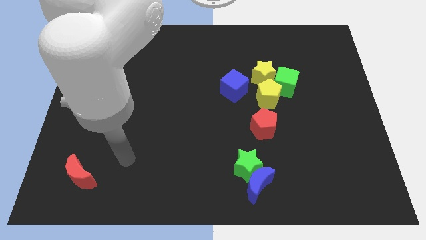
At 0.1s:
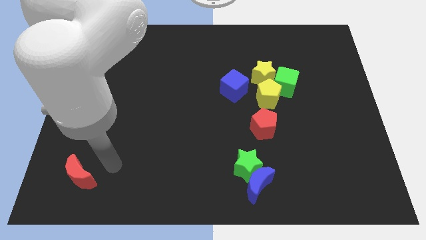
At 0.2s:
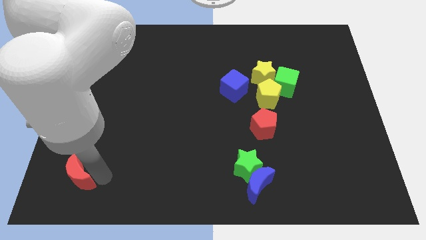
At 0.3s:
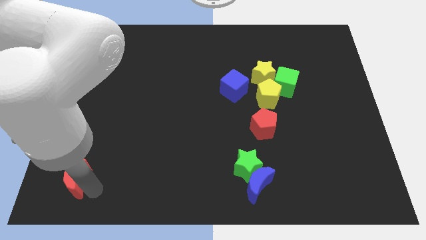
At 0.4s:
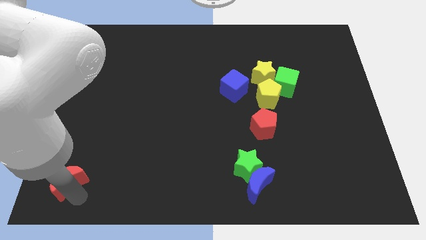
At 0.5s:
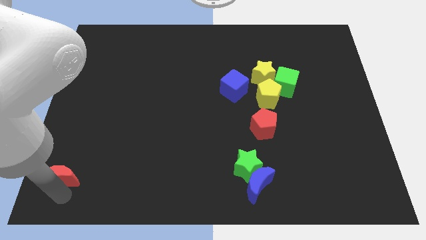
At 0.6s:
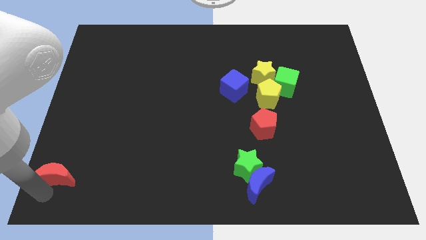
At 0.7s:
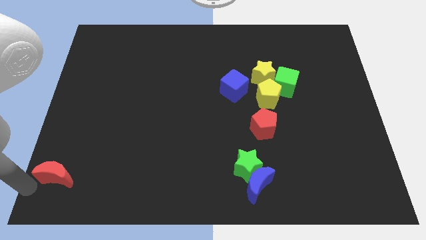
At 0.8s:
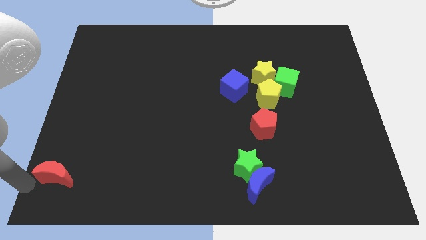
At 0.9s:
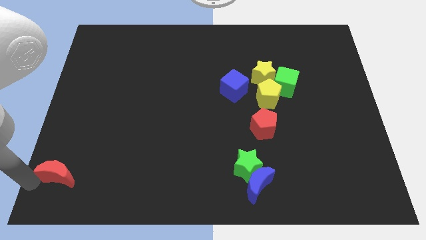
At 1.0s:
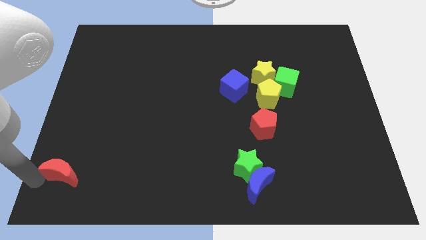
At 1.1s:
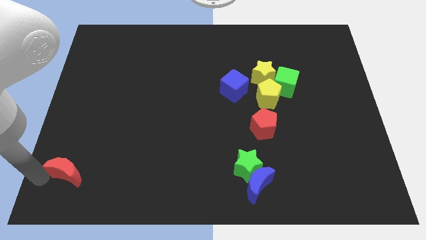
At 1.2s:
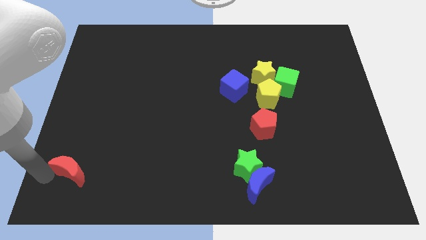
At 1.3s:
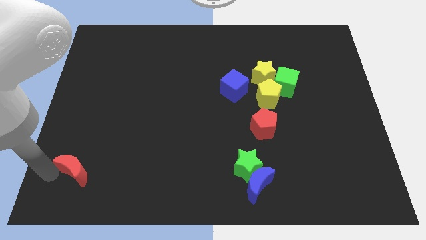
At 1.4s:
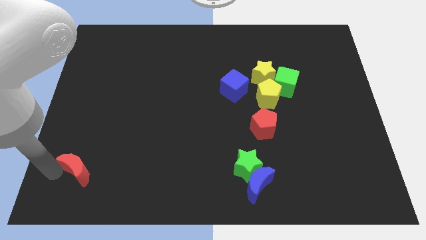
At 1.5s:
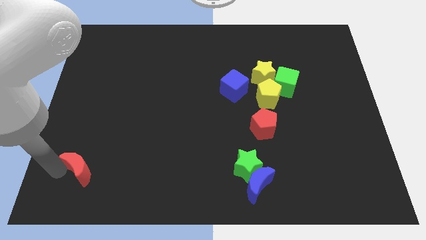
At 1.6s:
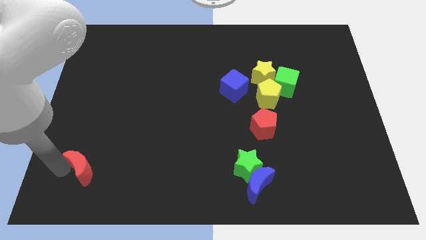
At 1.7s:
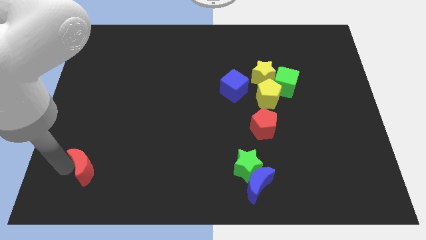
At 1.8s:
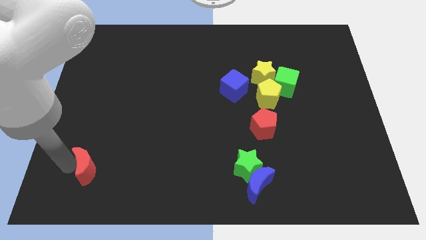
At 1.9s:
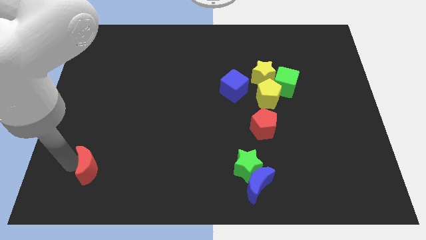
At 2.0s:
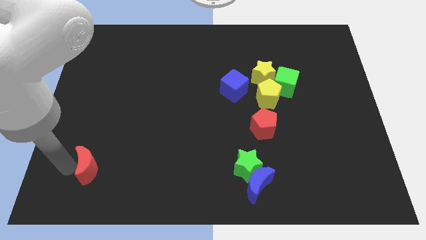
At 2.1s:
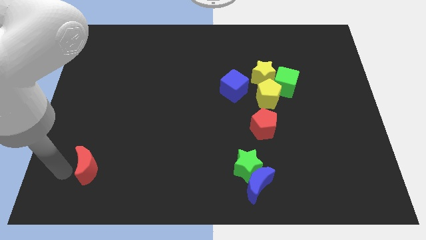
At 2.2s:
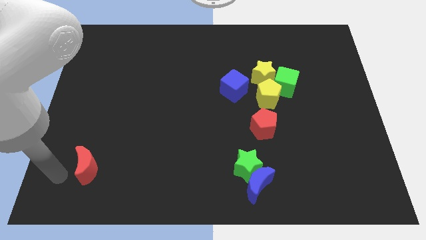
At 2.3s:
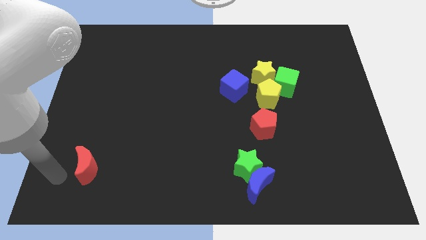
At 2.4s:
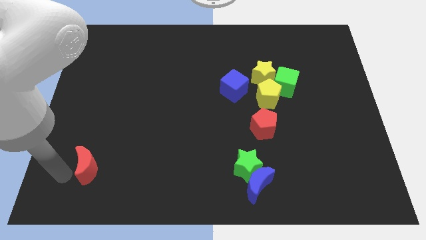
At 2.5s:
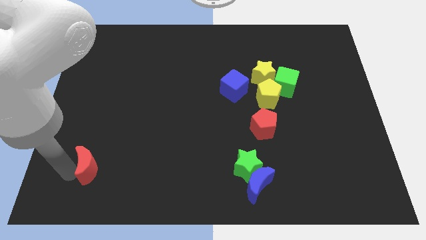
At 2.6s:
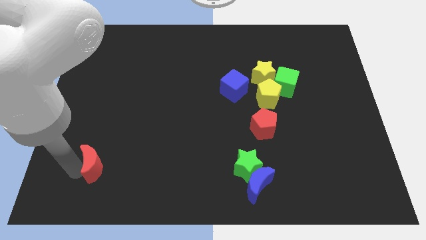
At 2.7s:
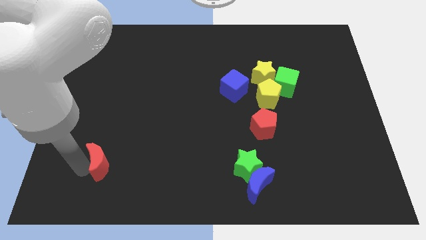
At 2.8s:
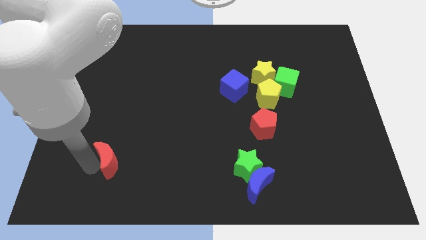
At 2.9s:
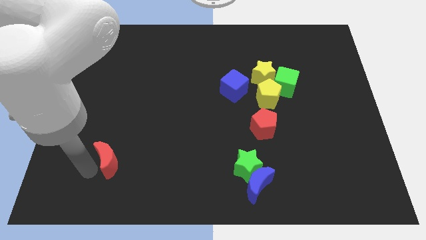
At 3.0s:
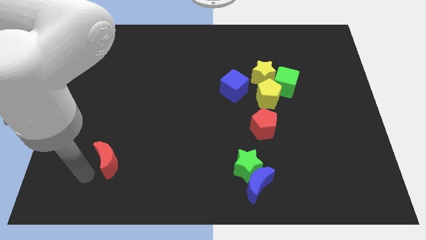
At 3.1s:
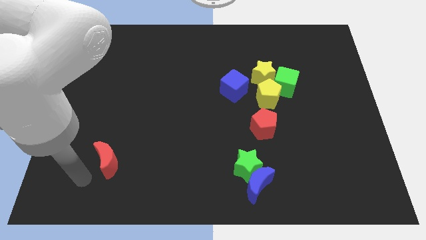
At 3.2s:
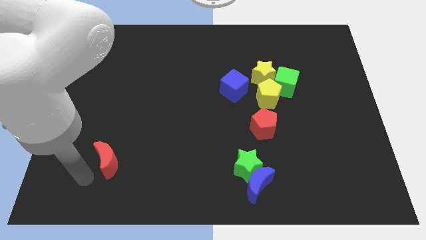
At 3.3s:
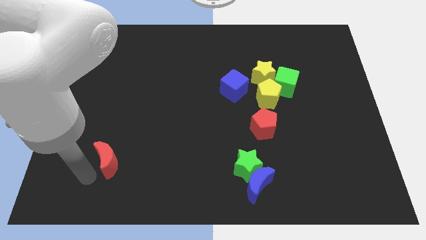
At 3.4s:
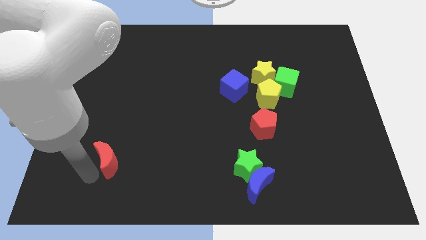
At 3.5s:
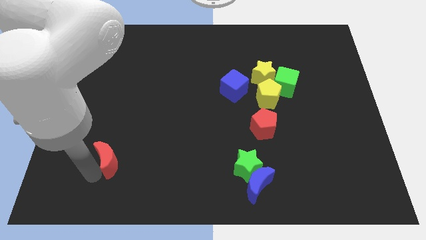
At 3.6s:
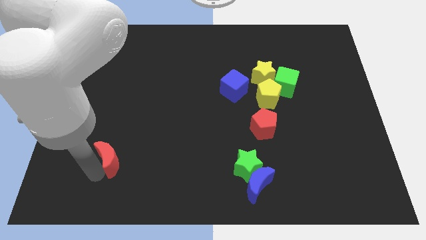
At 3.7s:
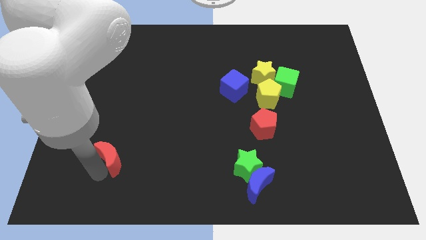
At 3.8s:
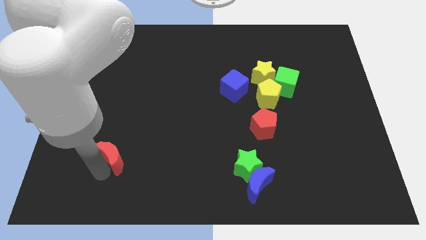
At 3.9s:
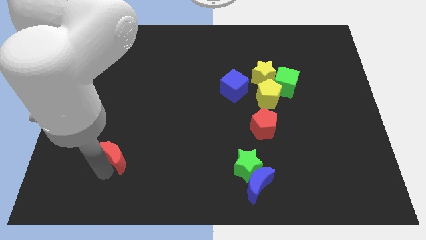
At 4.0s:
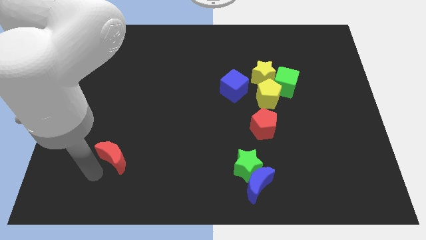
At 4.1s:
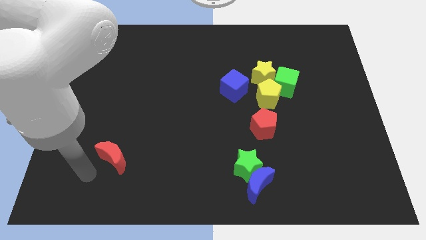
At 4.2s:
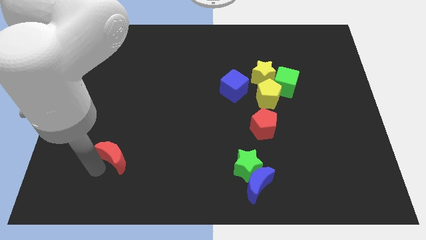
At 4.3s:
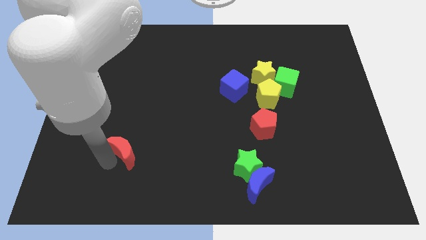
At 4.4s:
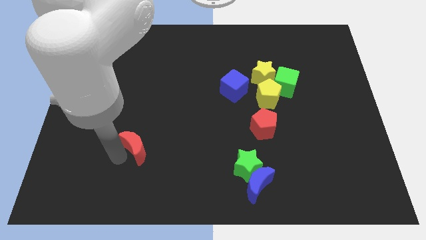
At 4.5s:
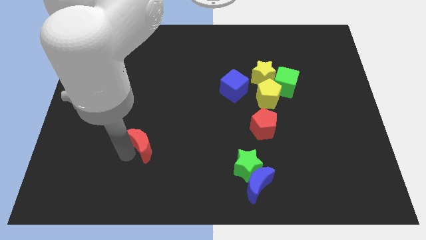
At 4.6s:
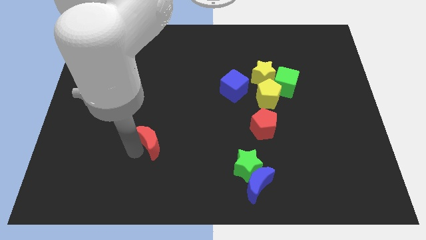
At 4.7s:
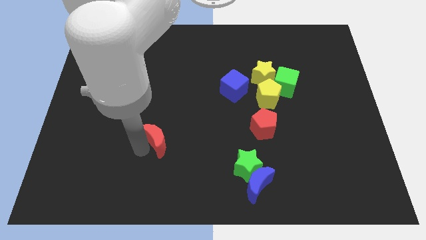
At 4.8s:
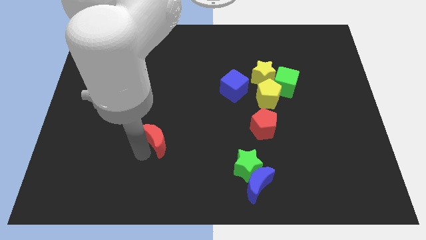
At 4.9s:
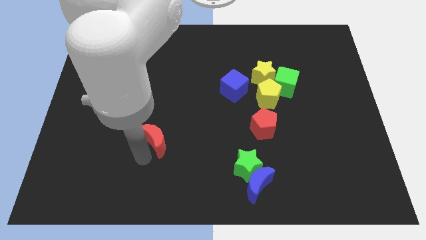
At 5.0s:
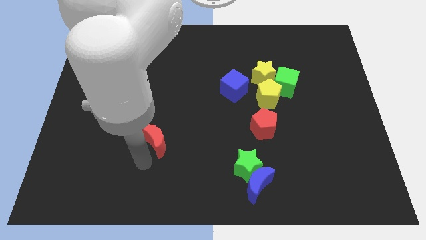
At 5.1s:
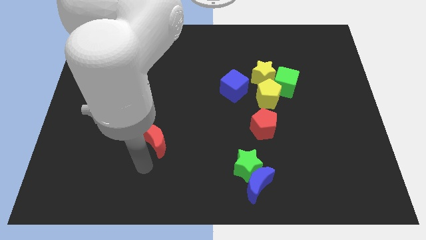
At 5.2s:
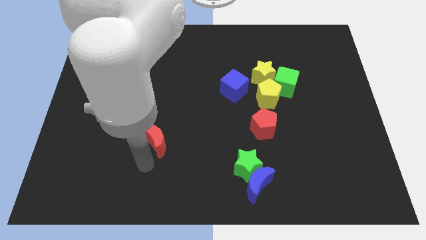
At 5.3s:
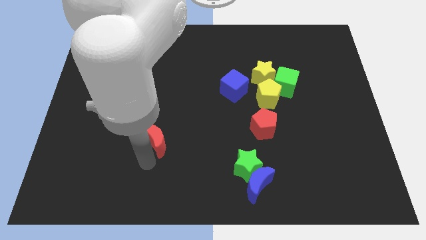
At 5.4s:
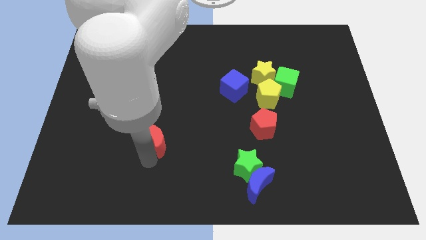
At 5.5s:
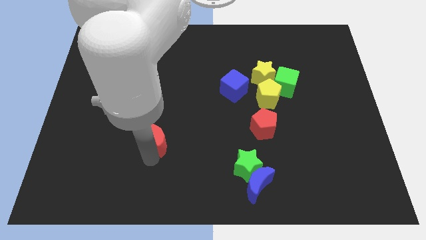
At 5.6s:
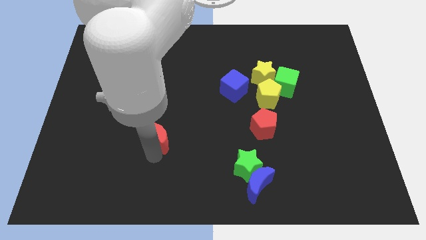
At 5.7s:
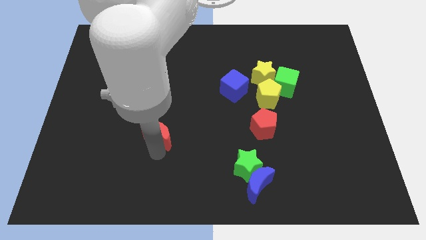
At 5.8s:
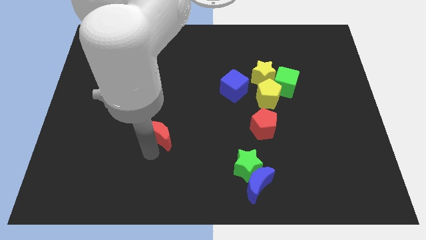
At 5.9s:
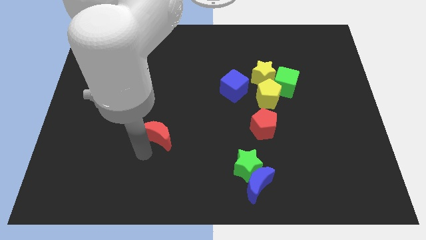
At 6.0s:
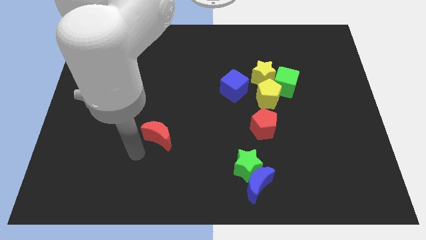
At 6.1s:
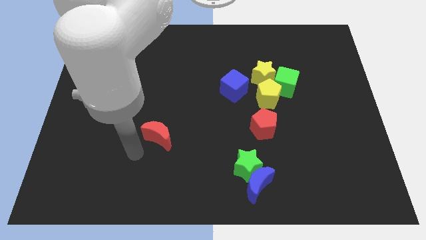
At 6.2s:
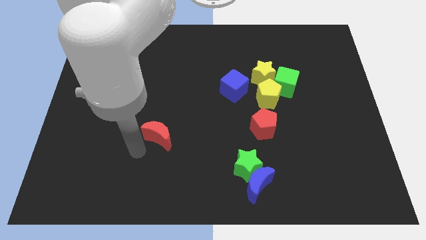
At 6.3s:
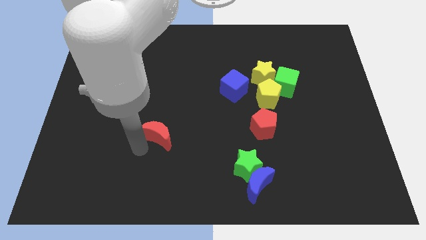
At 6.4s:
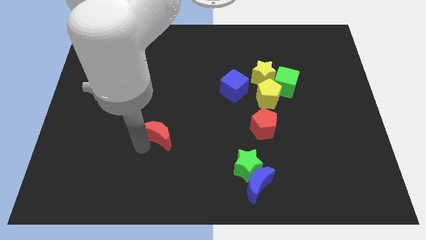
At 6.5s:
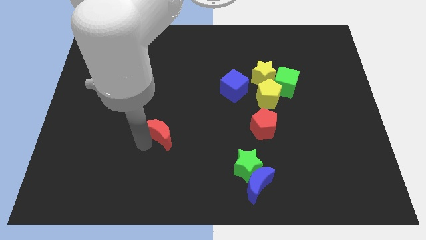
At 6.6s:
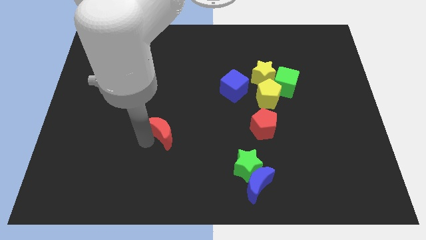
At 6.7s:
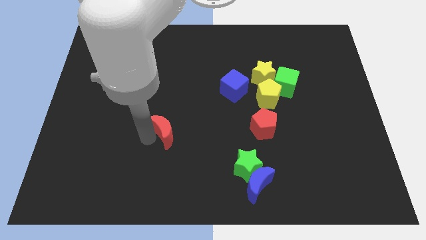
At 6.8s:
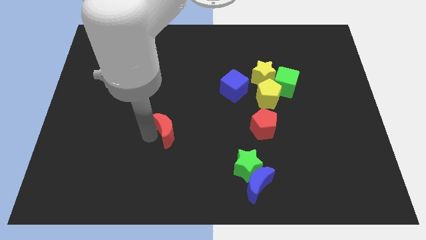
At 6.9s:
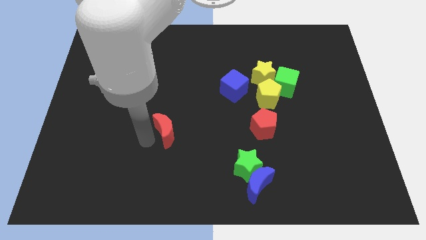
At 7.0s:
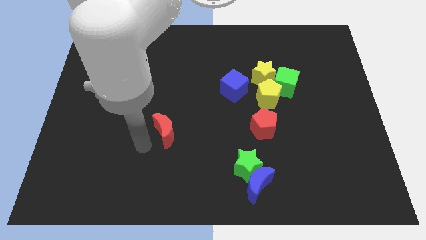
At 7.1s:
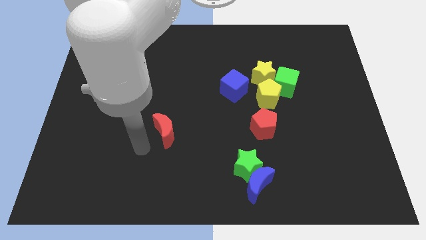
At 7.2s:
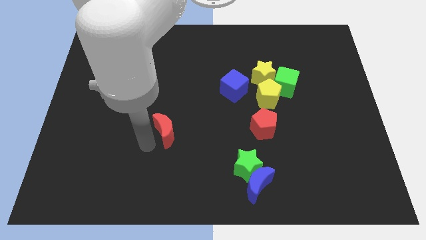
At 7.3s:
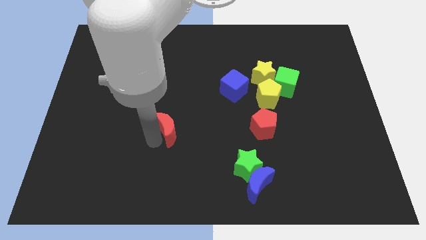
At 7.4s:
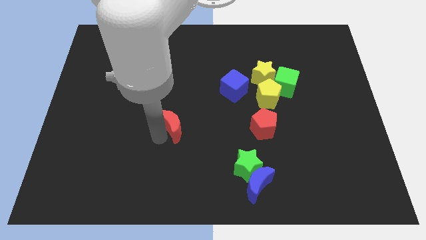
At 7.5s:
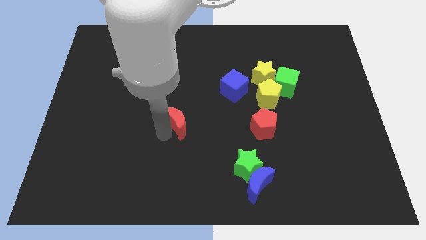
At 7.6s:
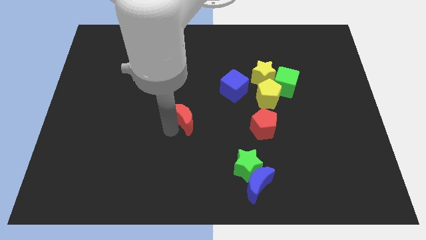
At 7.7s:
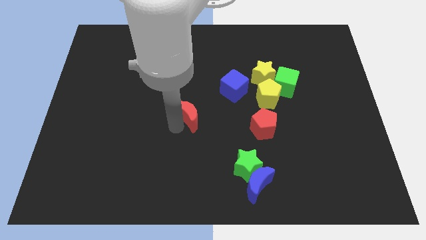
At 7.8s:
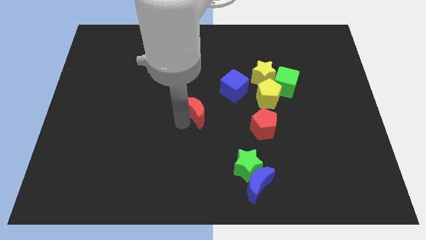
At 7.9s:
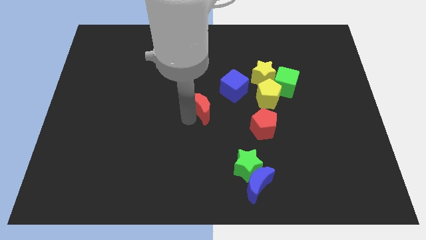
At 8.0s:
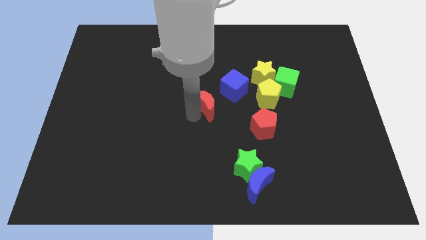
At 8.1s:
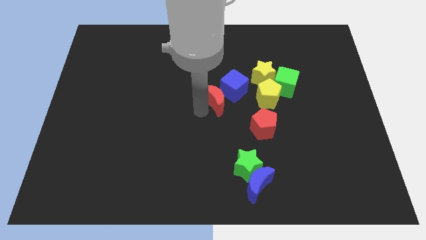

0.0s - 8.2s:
put the red moon close to the blue cube
